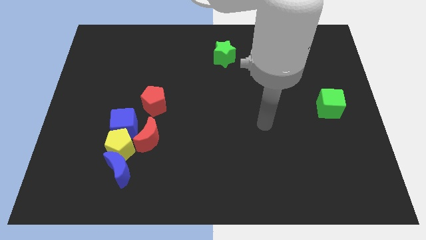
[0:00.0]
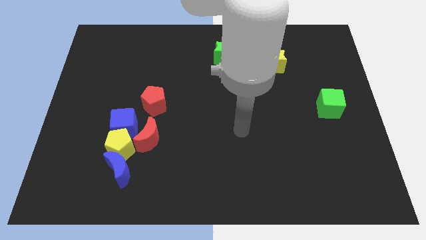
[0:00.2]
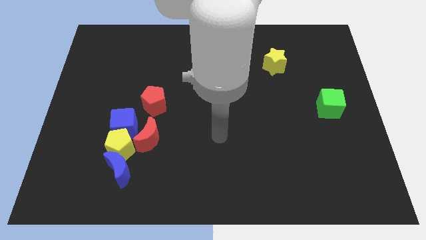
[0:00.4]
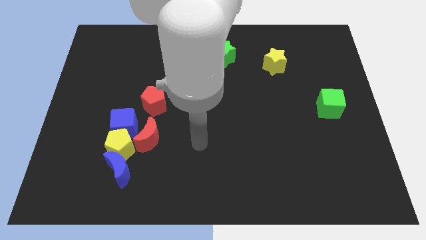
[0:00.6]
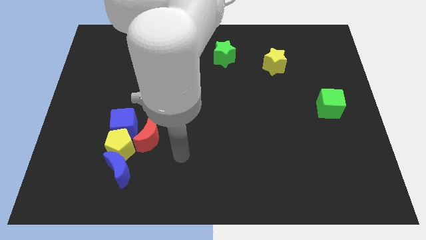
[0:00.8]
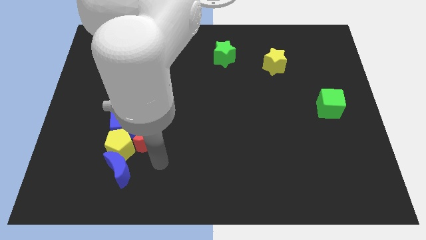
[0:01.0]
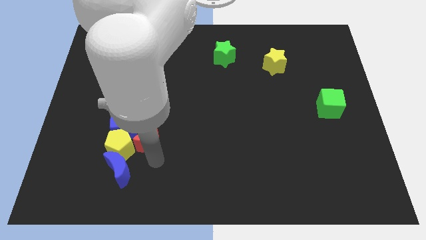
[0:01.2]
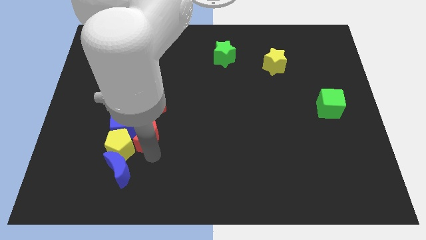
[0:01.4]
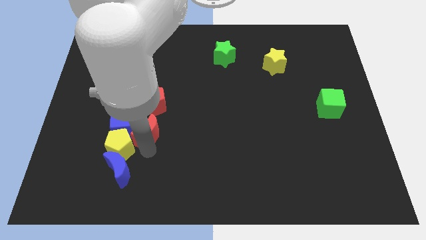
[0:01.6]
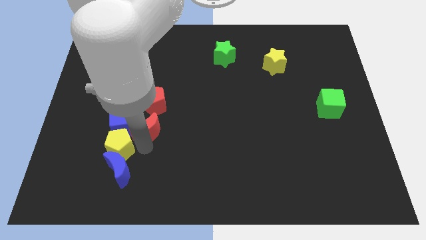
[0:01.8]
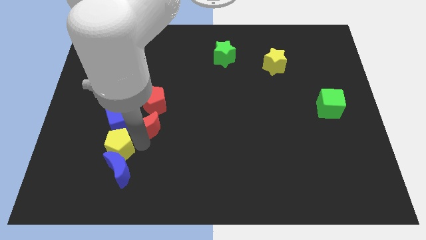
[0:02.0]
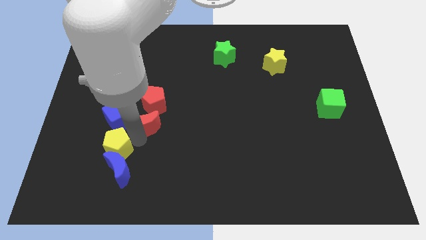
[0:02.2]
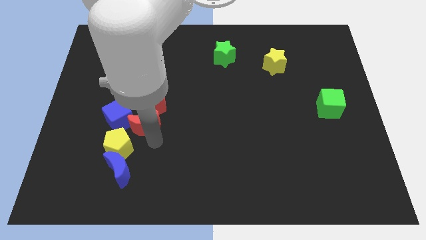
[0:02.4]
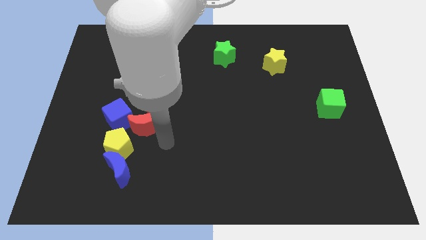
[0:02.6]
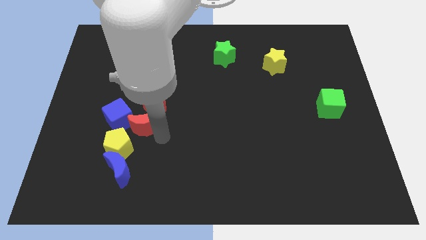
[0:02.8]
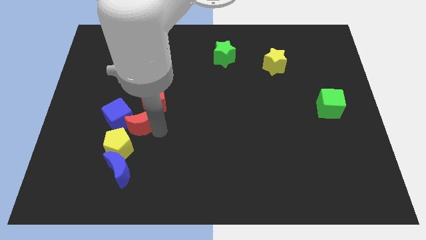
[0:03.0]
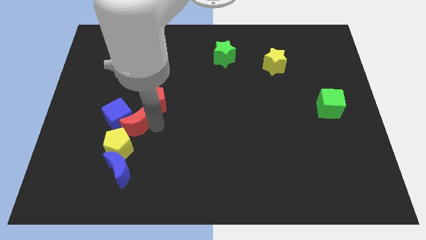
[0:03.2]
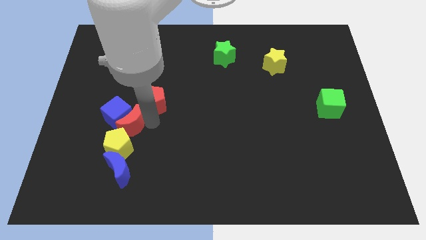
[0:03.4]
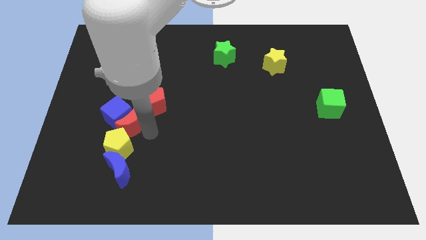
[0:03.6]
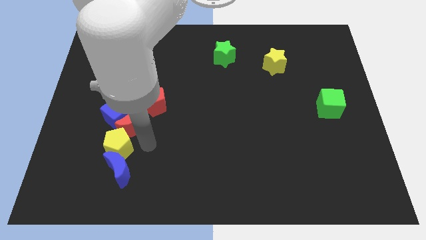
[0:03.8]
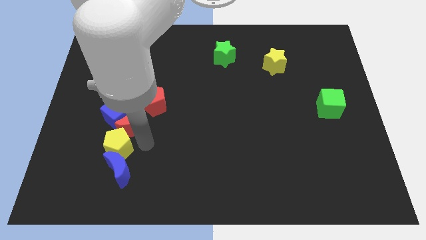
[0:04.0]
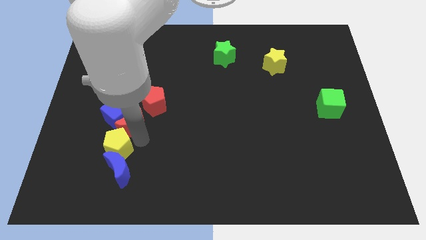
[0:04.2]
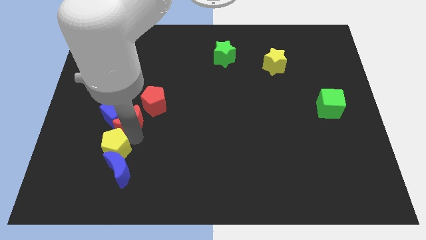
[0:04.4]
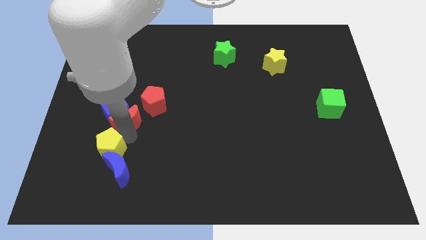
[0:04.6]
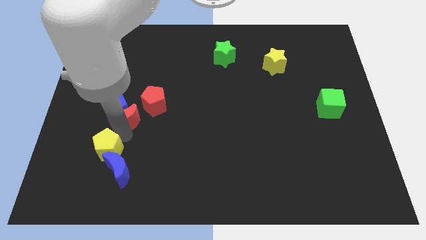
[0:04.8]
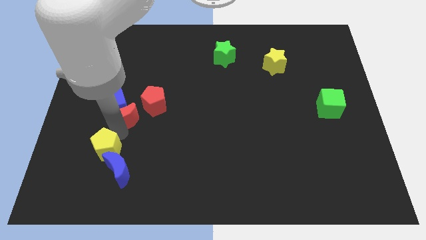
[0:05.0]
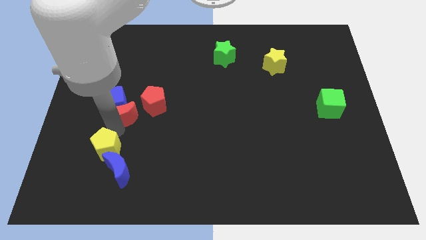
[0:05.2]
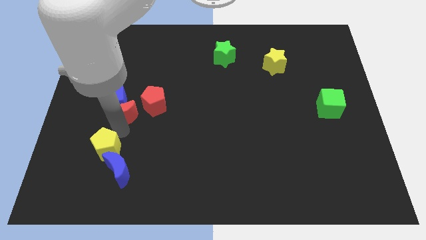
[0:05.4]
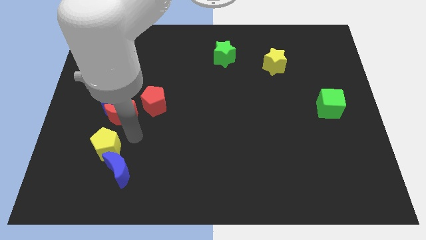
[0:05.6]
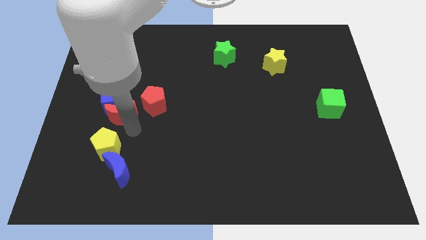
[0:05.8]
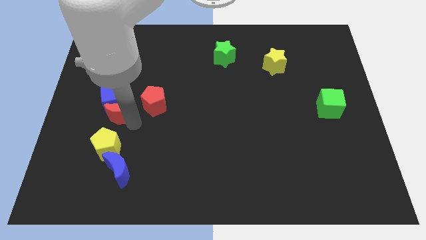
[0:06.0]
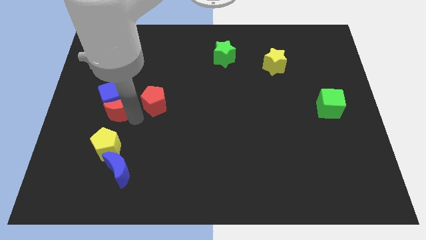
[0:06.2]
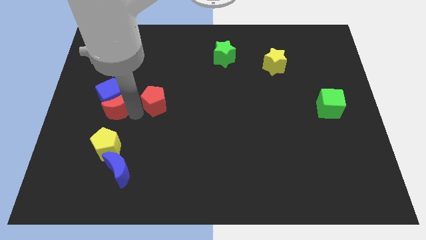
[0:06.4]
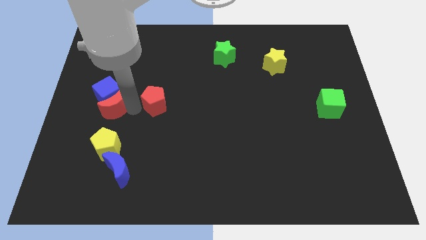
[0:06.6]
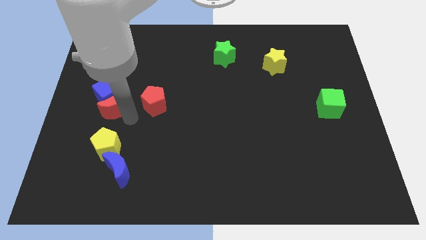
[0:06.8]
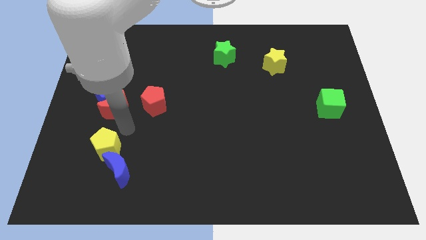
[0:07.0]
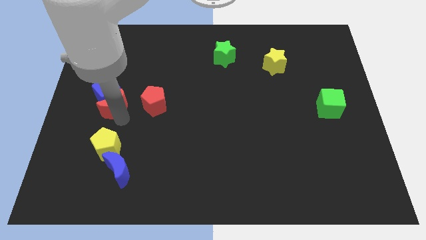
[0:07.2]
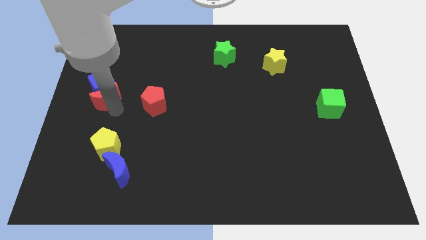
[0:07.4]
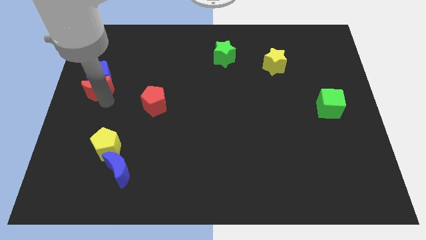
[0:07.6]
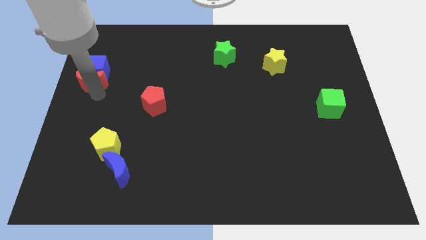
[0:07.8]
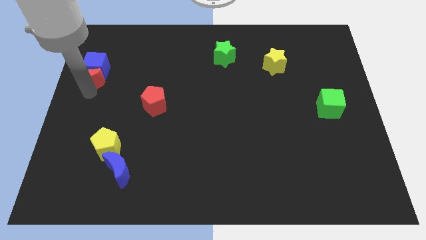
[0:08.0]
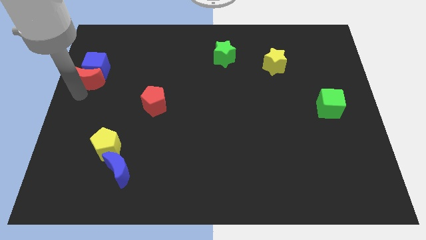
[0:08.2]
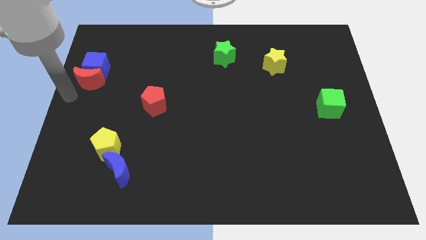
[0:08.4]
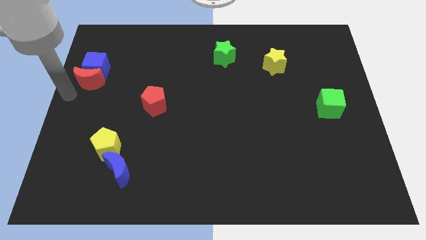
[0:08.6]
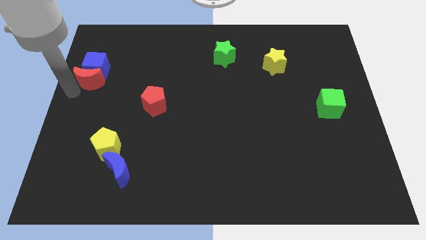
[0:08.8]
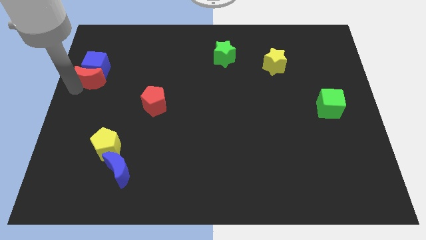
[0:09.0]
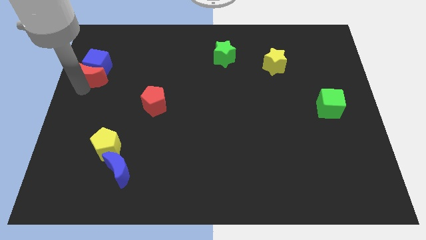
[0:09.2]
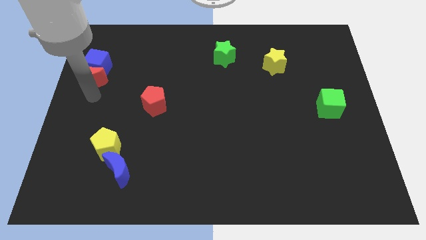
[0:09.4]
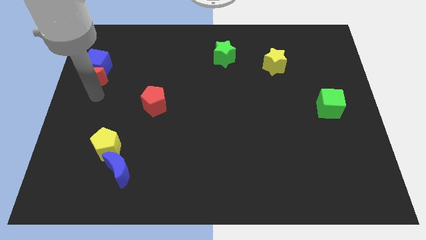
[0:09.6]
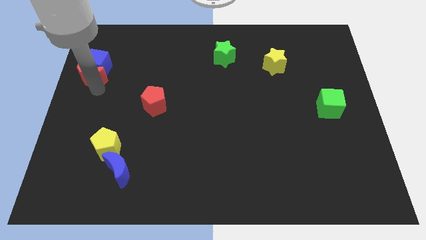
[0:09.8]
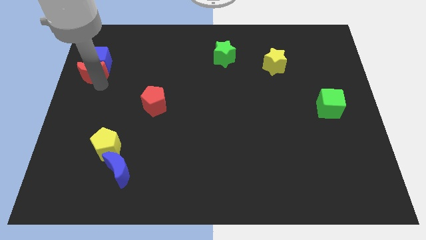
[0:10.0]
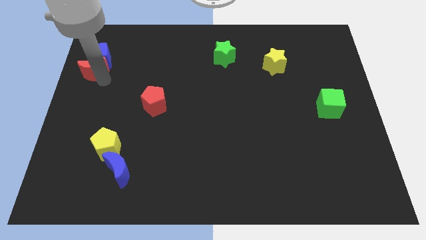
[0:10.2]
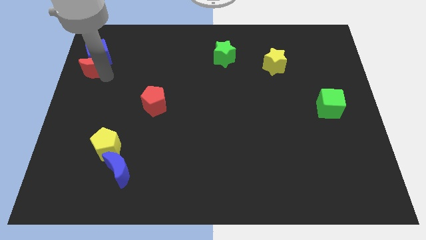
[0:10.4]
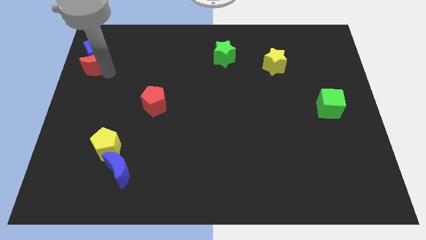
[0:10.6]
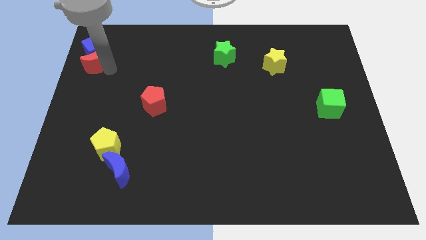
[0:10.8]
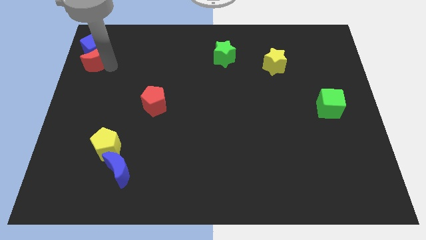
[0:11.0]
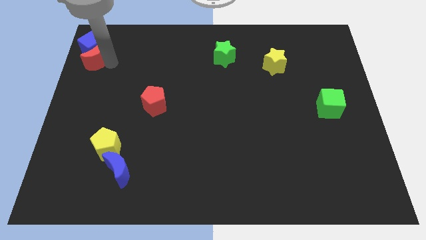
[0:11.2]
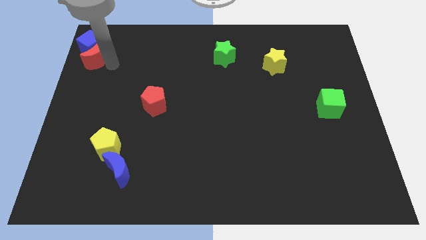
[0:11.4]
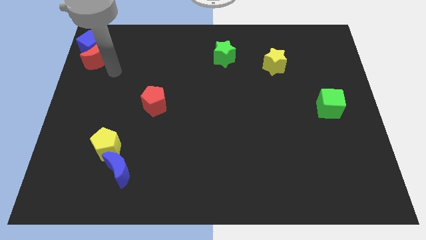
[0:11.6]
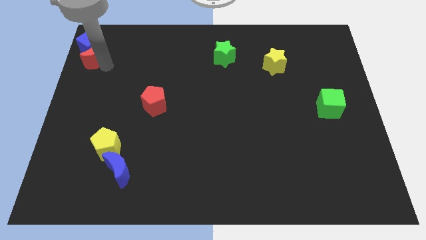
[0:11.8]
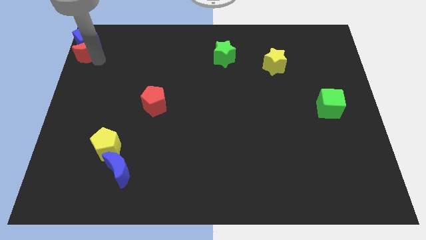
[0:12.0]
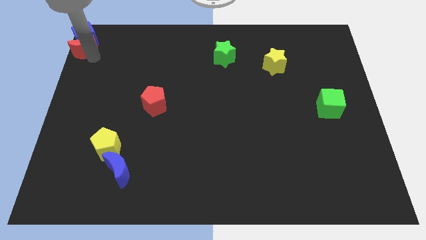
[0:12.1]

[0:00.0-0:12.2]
put the red moon to the top left corner

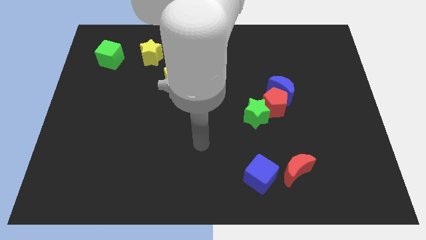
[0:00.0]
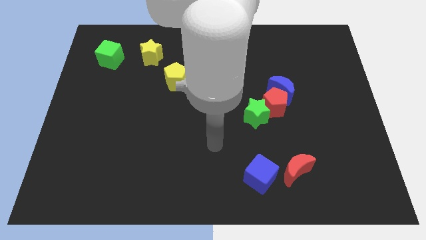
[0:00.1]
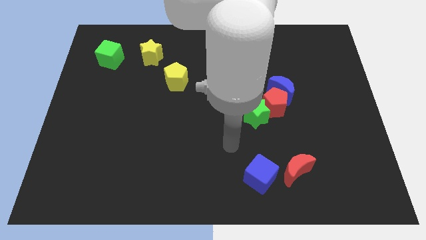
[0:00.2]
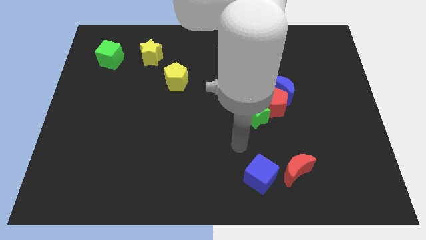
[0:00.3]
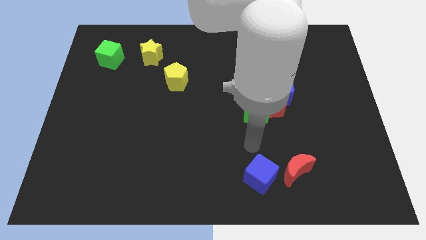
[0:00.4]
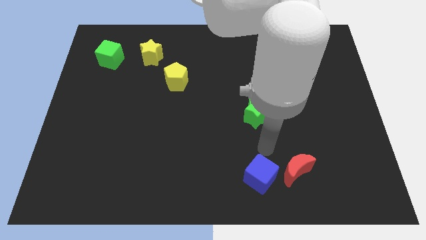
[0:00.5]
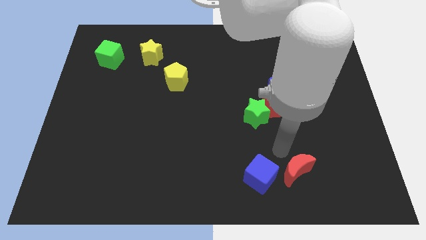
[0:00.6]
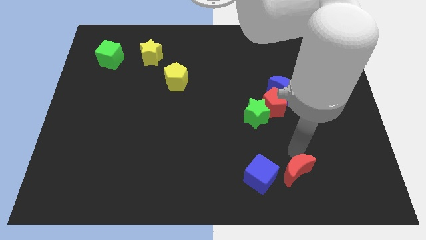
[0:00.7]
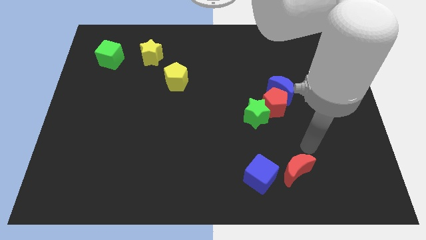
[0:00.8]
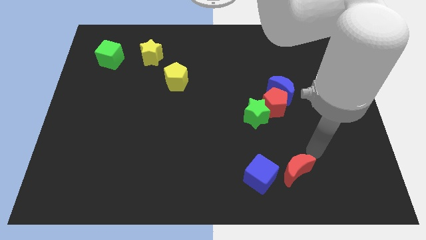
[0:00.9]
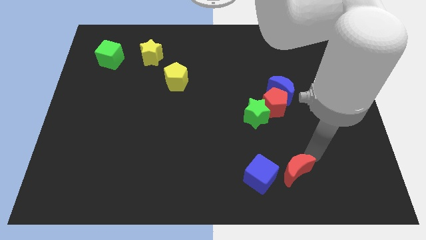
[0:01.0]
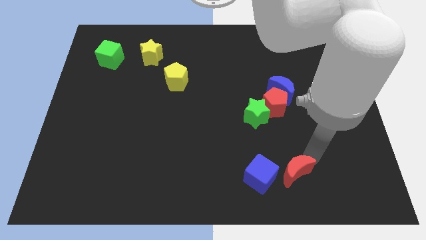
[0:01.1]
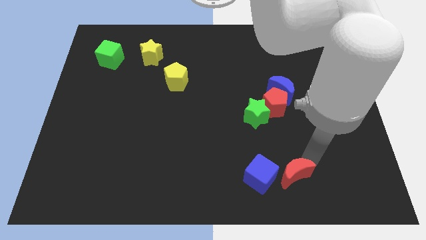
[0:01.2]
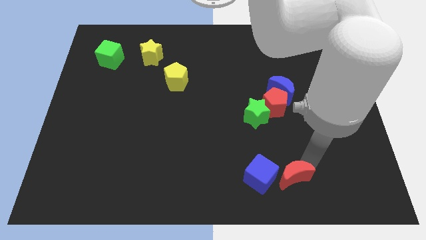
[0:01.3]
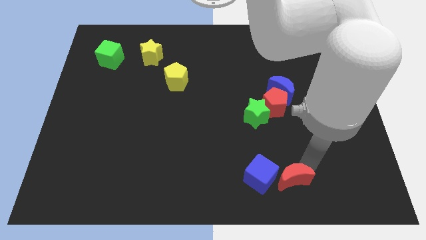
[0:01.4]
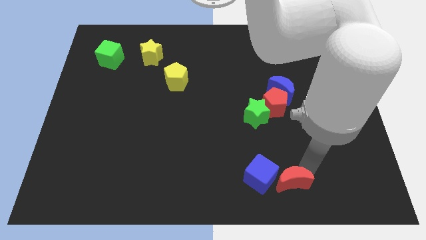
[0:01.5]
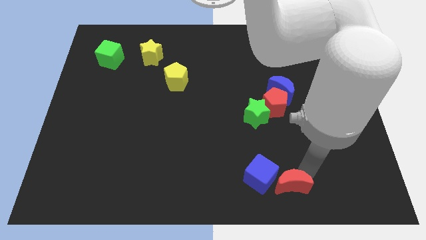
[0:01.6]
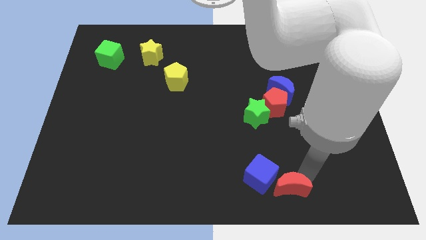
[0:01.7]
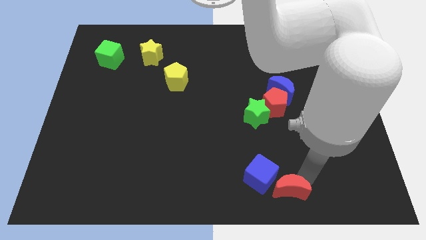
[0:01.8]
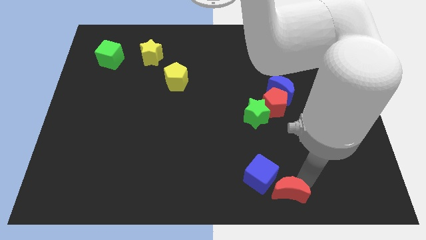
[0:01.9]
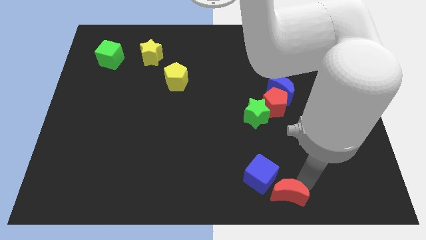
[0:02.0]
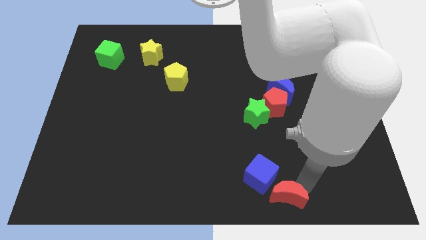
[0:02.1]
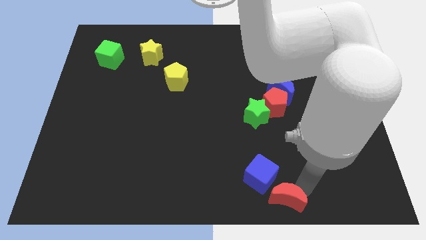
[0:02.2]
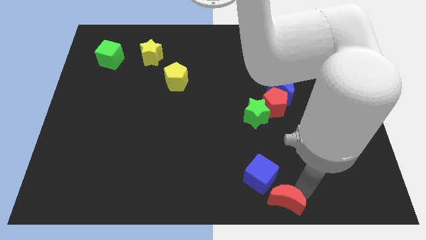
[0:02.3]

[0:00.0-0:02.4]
put the red moon to the bottom side
